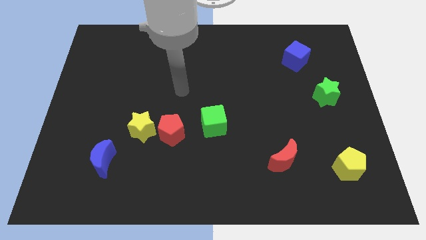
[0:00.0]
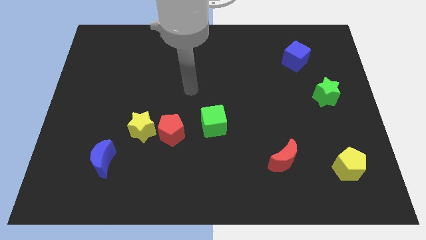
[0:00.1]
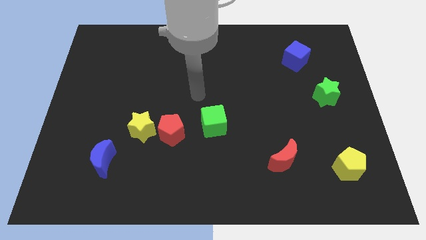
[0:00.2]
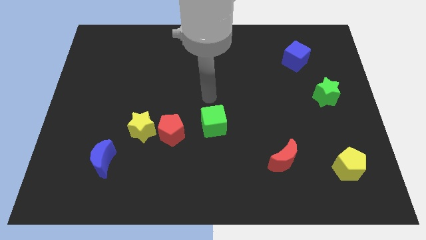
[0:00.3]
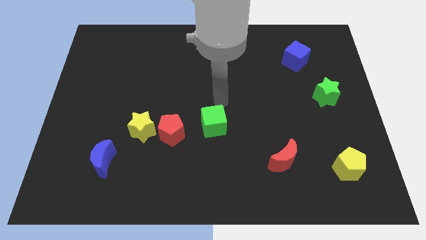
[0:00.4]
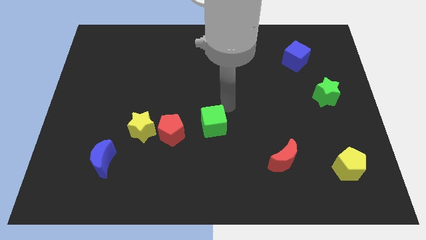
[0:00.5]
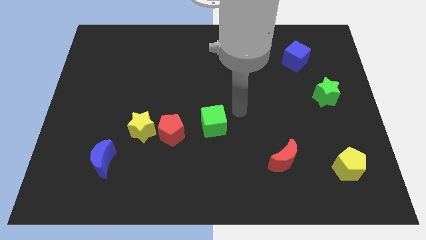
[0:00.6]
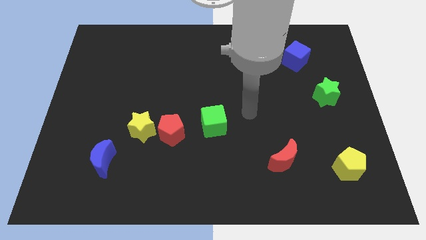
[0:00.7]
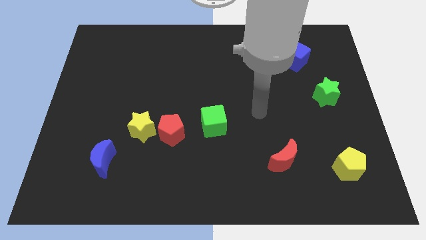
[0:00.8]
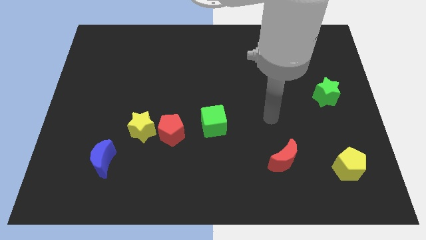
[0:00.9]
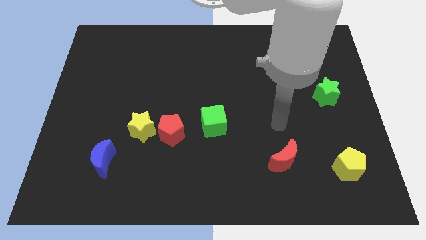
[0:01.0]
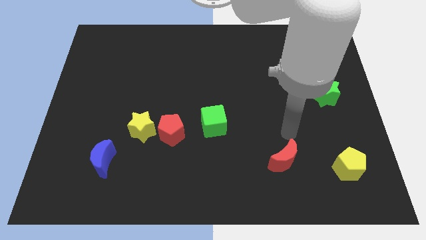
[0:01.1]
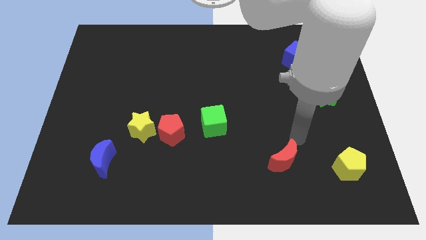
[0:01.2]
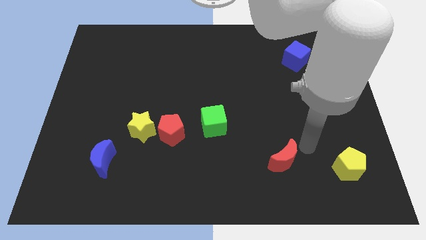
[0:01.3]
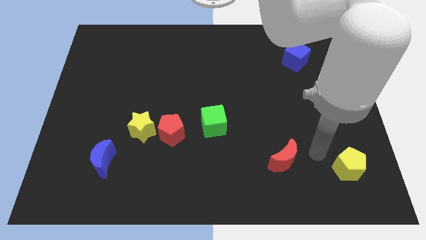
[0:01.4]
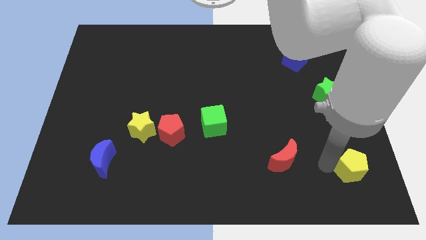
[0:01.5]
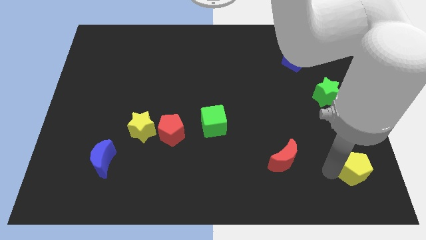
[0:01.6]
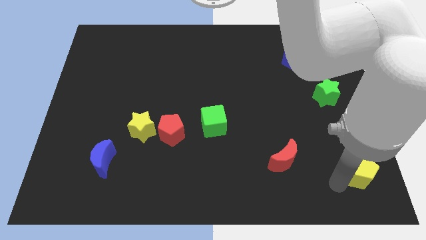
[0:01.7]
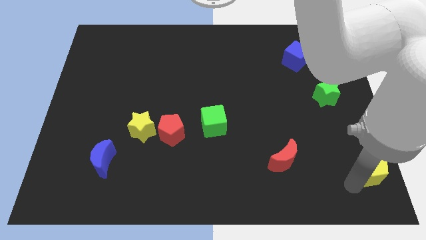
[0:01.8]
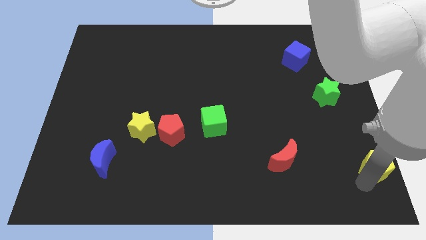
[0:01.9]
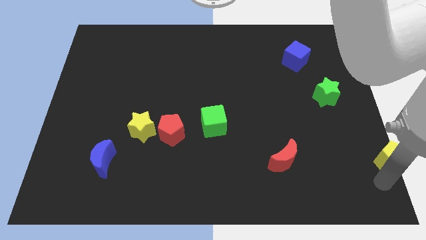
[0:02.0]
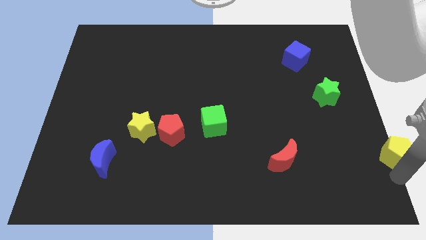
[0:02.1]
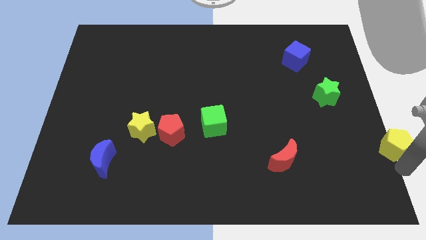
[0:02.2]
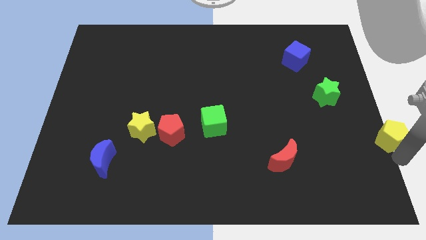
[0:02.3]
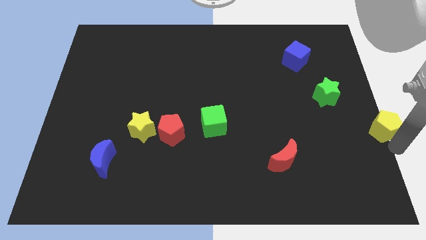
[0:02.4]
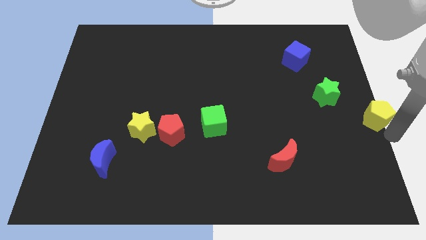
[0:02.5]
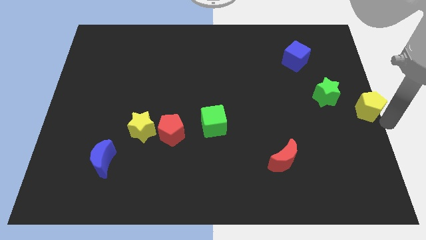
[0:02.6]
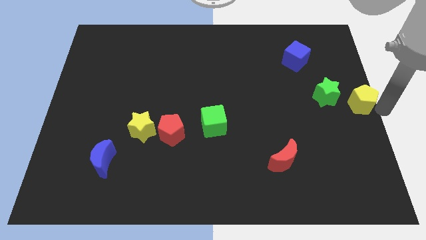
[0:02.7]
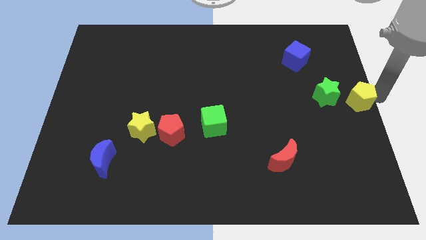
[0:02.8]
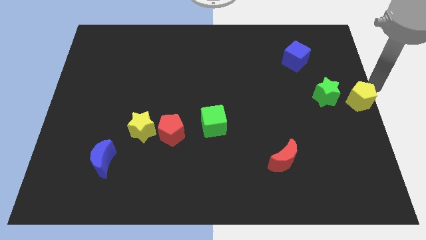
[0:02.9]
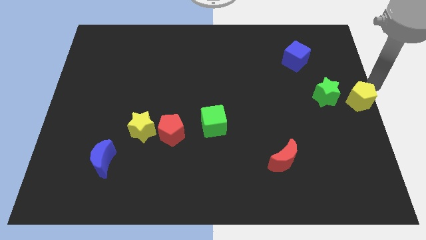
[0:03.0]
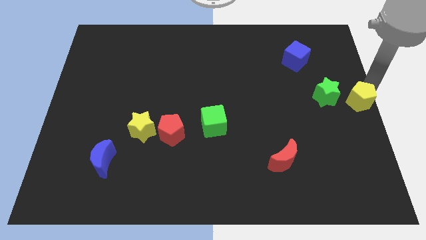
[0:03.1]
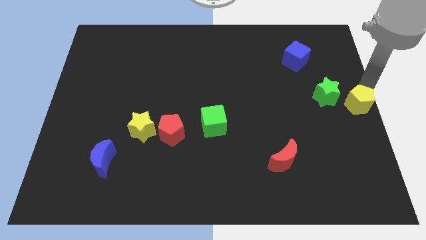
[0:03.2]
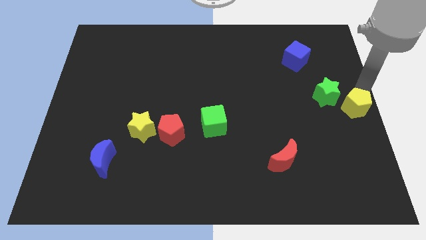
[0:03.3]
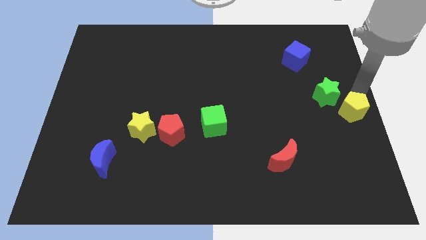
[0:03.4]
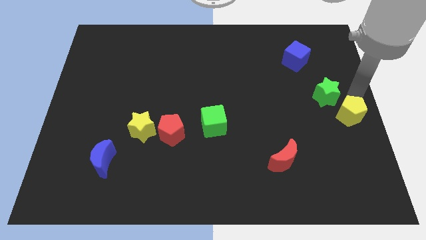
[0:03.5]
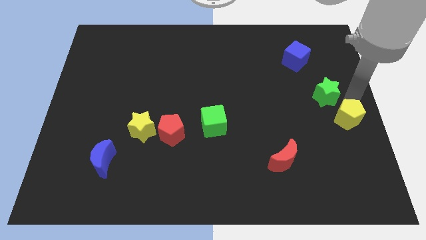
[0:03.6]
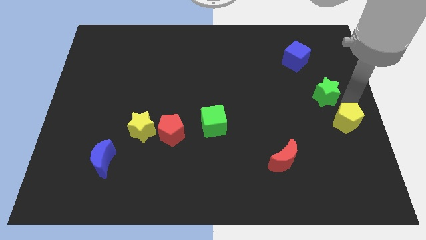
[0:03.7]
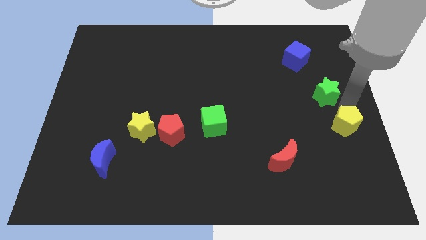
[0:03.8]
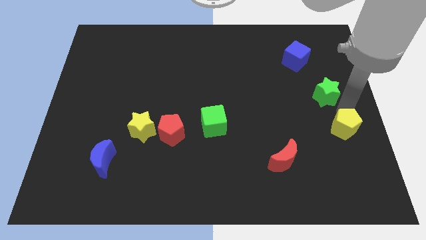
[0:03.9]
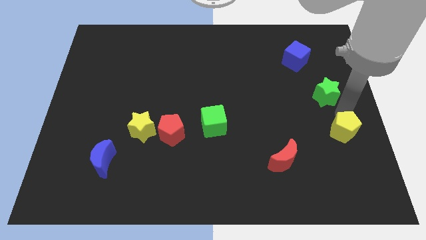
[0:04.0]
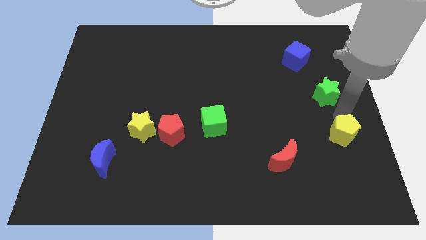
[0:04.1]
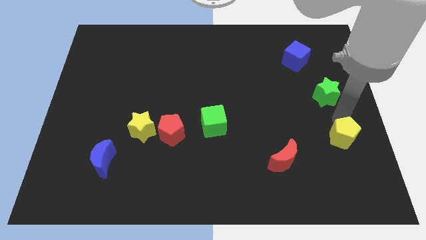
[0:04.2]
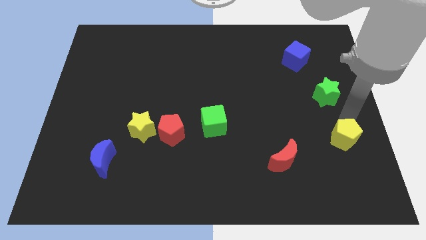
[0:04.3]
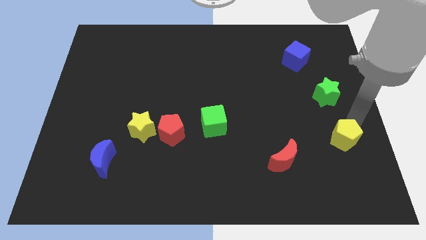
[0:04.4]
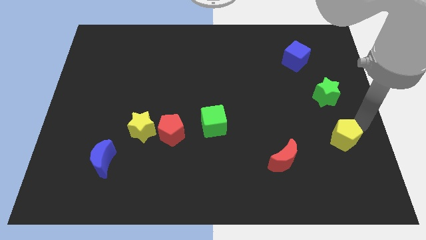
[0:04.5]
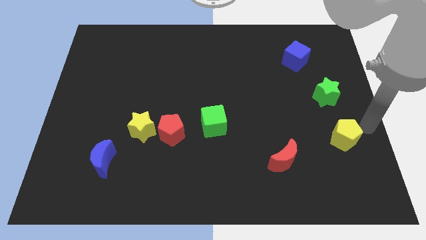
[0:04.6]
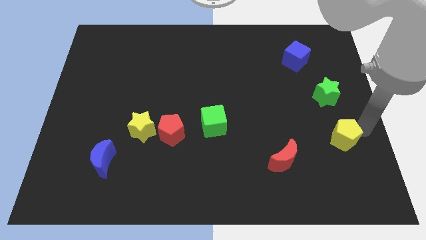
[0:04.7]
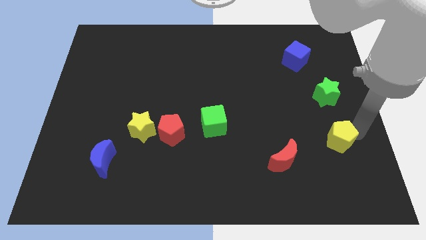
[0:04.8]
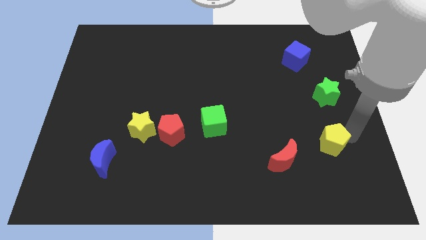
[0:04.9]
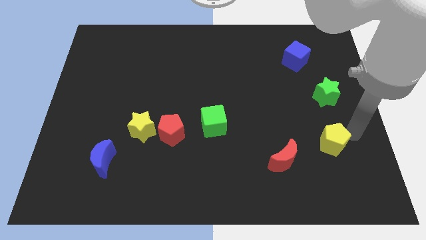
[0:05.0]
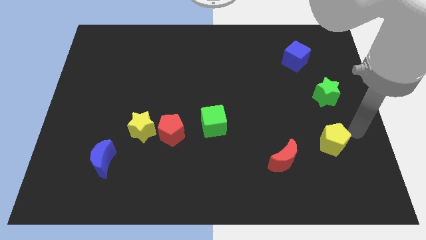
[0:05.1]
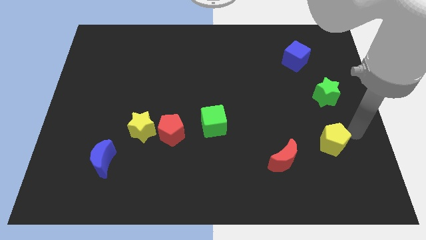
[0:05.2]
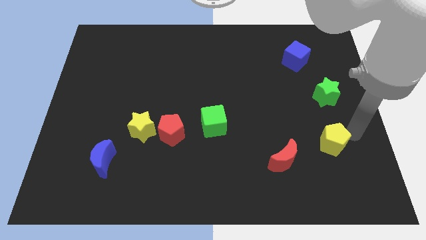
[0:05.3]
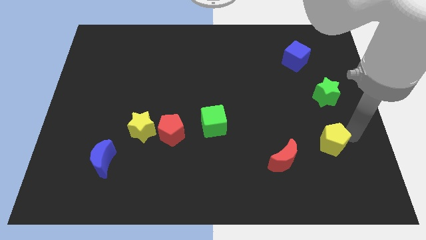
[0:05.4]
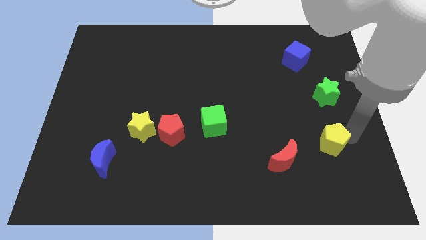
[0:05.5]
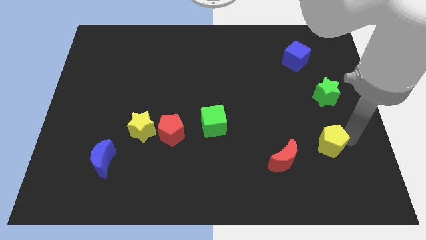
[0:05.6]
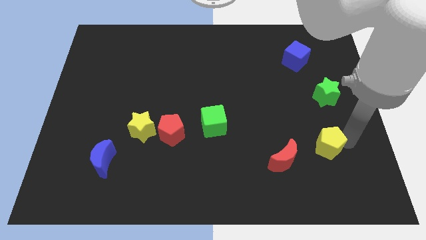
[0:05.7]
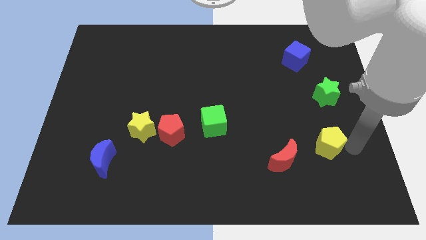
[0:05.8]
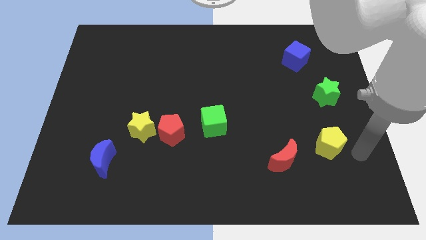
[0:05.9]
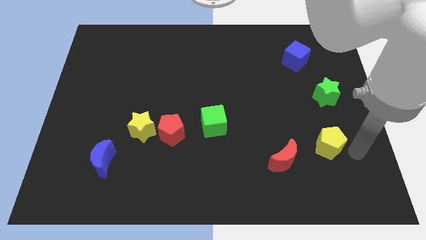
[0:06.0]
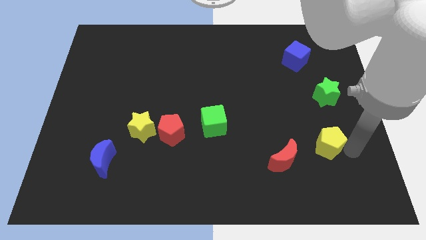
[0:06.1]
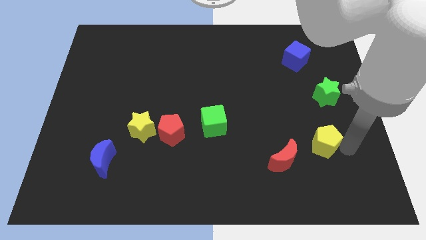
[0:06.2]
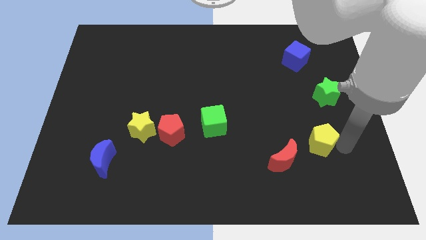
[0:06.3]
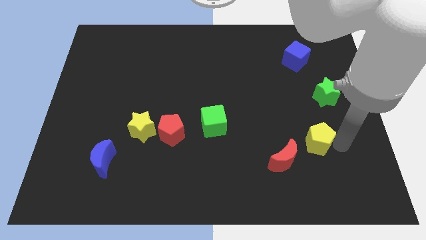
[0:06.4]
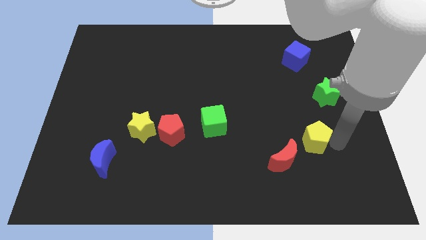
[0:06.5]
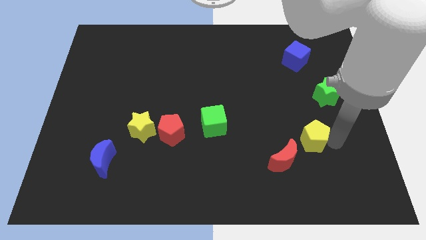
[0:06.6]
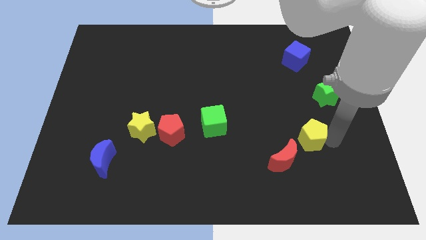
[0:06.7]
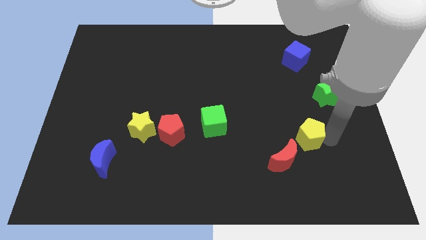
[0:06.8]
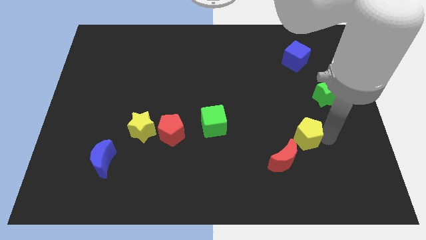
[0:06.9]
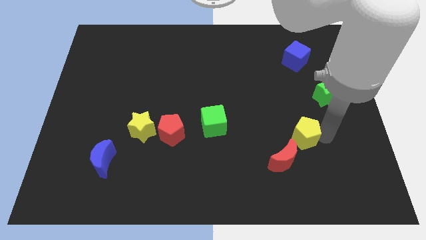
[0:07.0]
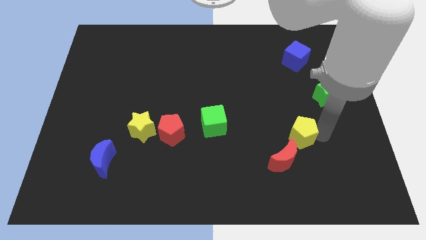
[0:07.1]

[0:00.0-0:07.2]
push the yellow pentagon above the red moon
